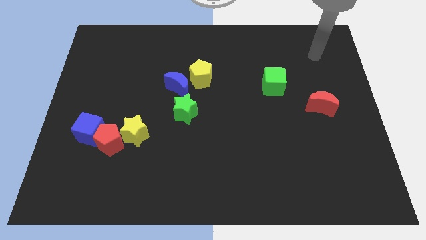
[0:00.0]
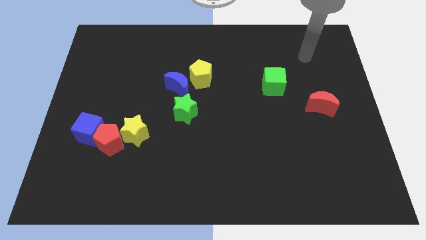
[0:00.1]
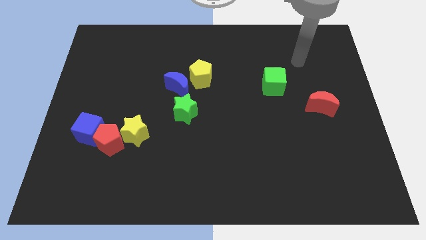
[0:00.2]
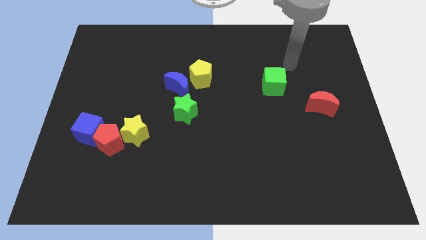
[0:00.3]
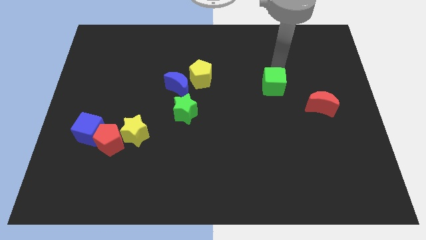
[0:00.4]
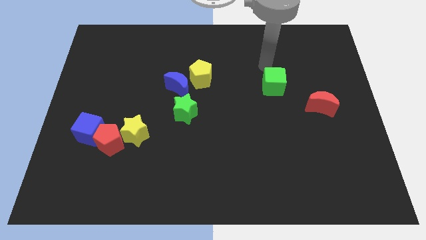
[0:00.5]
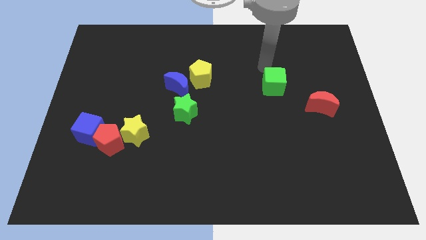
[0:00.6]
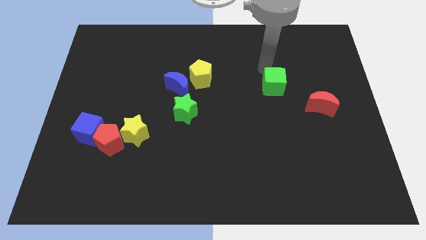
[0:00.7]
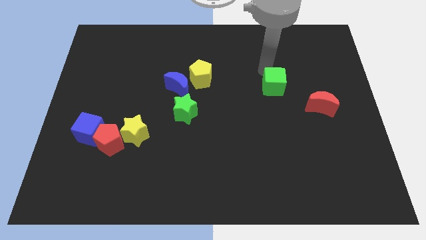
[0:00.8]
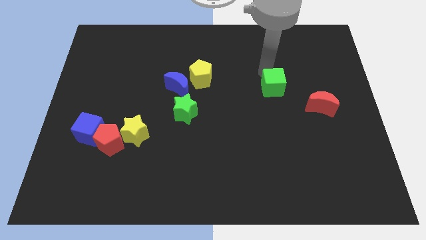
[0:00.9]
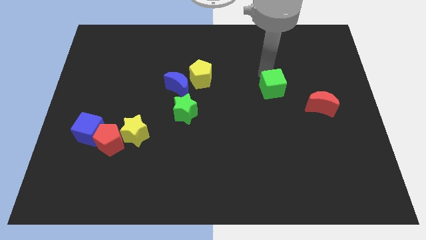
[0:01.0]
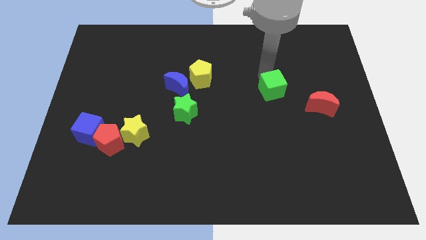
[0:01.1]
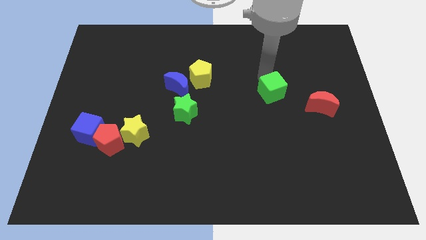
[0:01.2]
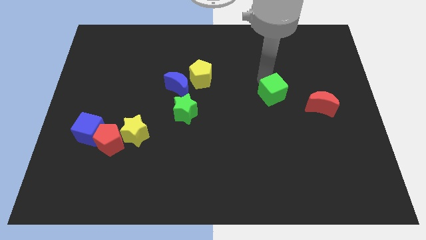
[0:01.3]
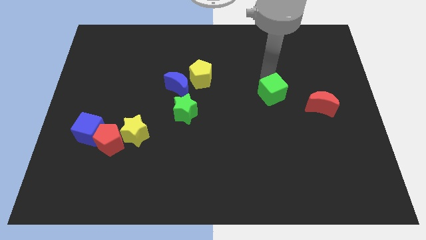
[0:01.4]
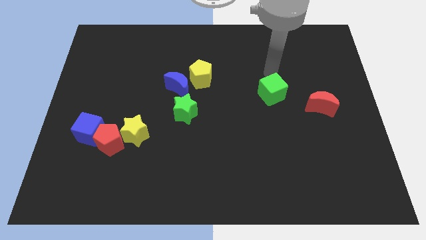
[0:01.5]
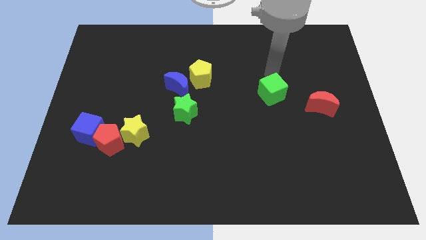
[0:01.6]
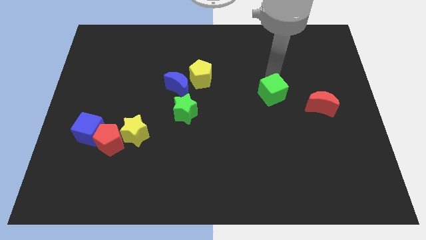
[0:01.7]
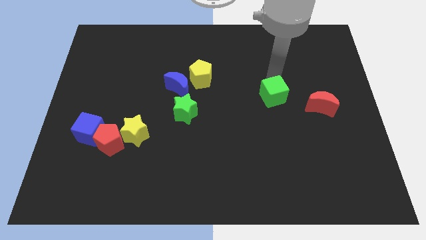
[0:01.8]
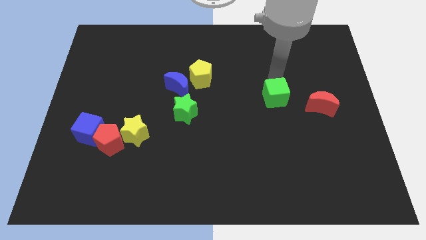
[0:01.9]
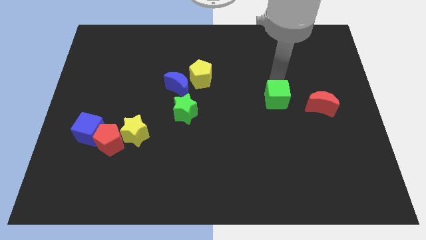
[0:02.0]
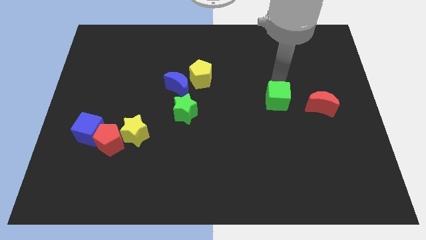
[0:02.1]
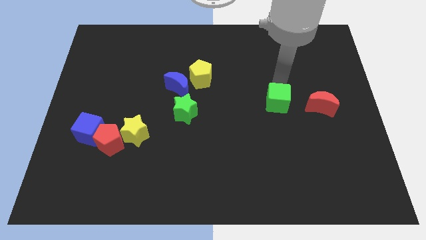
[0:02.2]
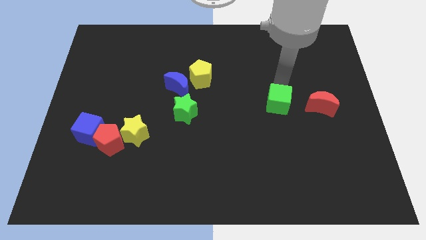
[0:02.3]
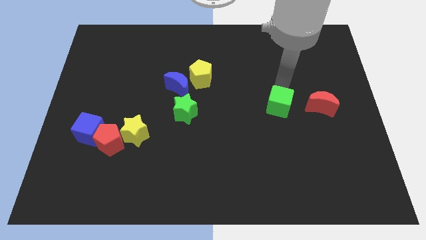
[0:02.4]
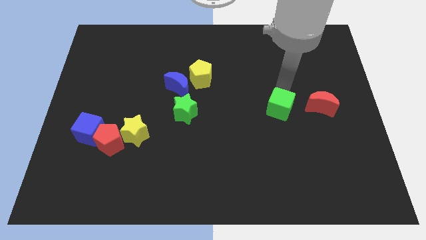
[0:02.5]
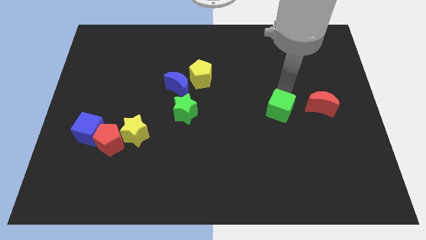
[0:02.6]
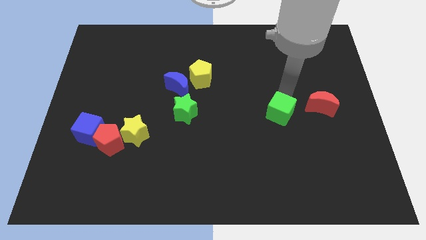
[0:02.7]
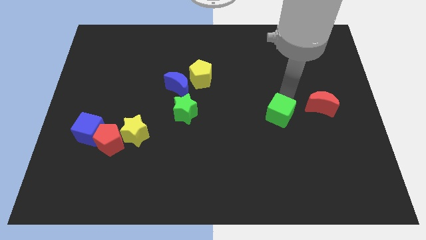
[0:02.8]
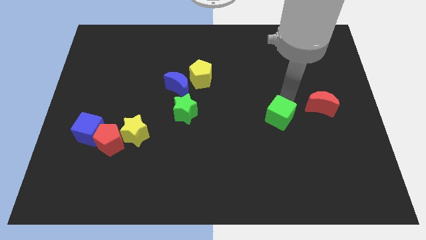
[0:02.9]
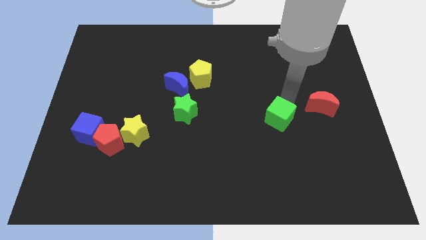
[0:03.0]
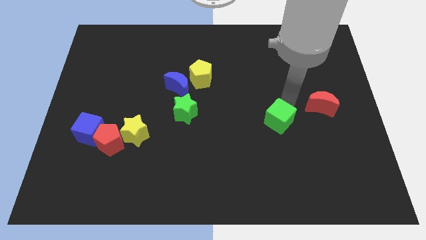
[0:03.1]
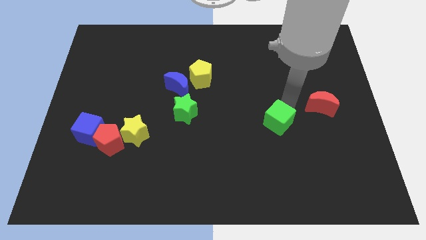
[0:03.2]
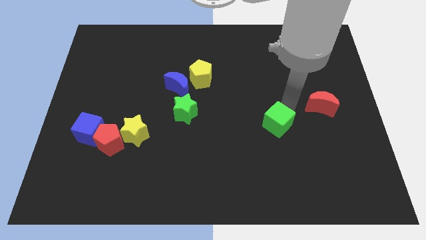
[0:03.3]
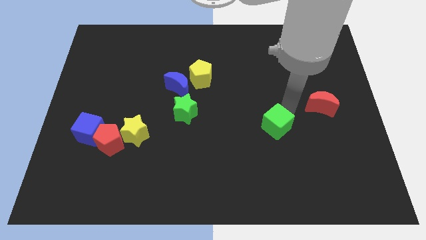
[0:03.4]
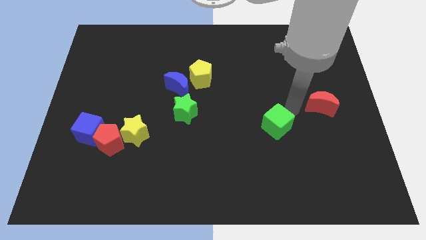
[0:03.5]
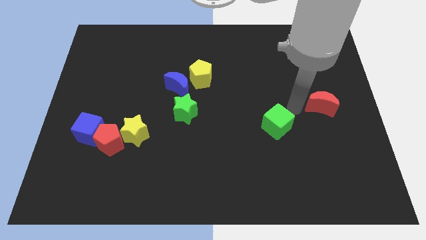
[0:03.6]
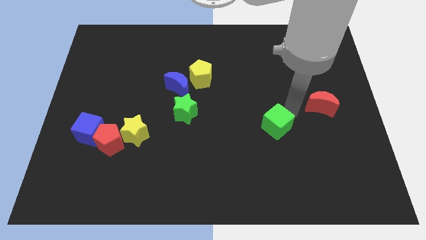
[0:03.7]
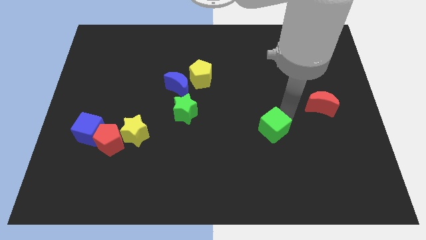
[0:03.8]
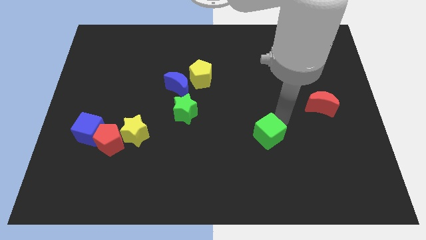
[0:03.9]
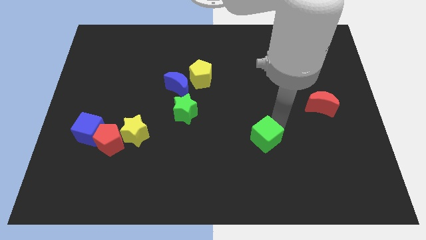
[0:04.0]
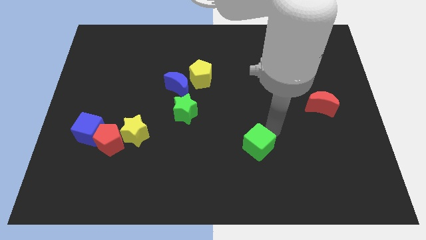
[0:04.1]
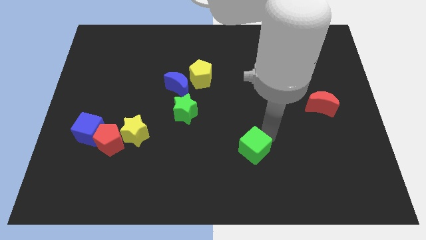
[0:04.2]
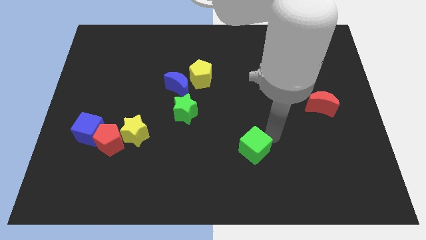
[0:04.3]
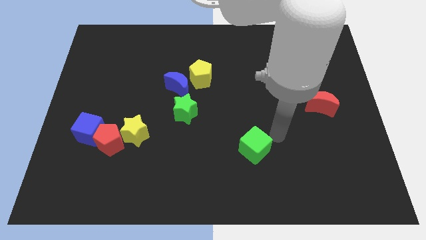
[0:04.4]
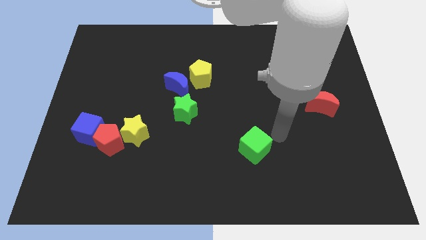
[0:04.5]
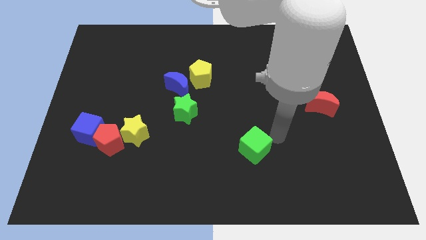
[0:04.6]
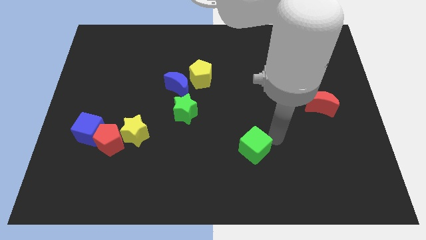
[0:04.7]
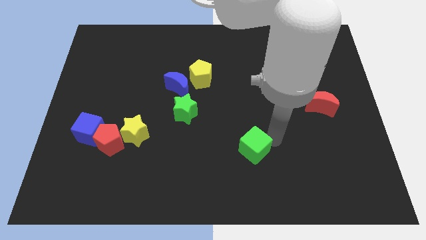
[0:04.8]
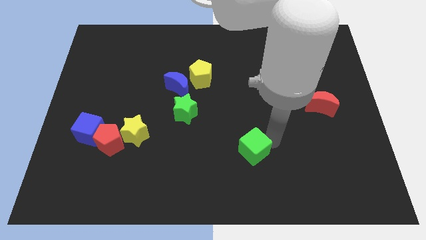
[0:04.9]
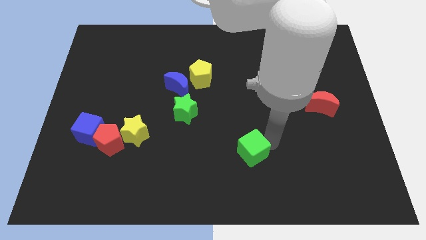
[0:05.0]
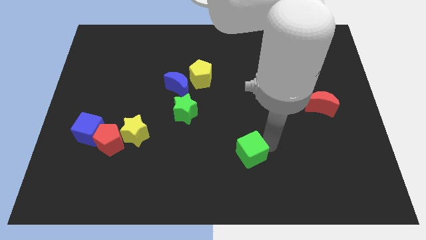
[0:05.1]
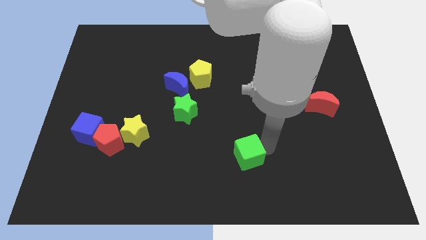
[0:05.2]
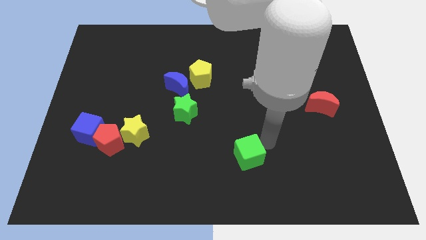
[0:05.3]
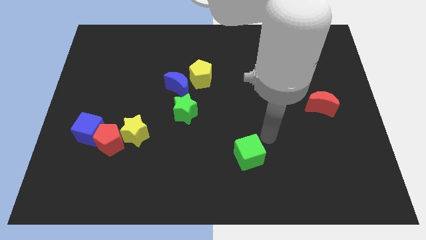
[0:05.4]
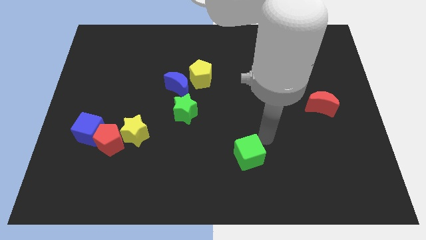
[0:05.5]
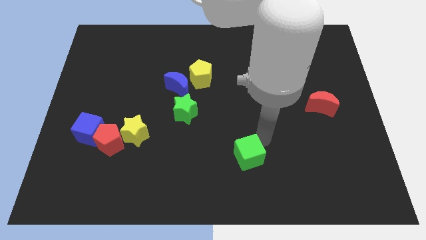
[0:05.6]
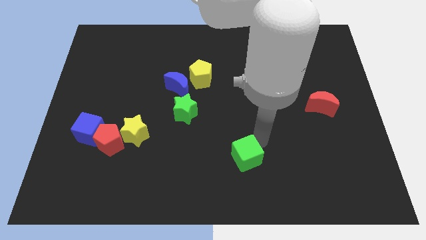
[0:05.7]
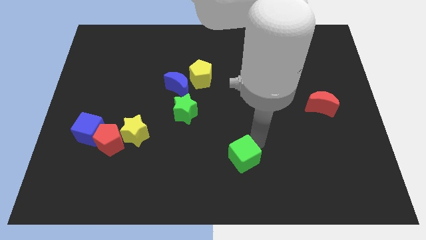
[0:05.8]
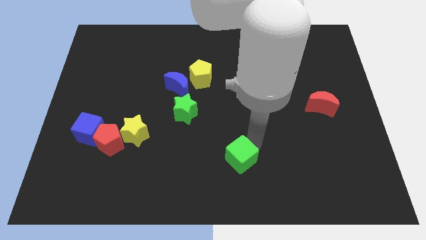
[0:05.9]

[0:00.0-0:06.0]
put the green cube to the bottom side
